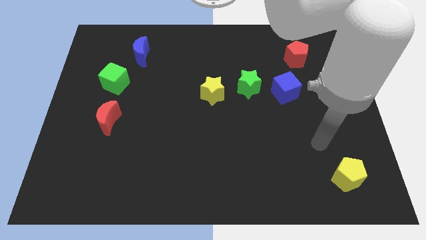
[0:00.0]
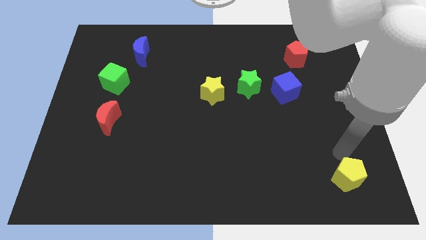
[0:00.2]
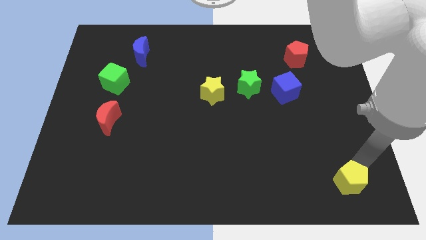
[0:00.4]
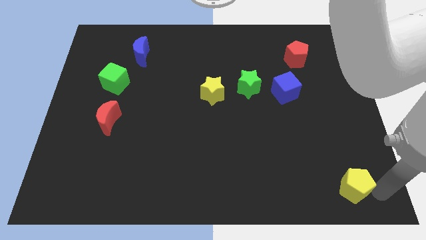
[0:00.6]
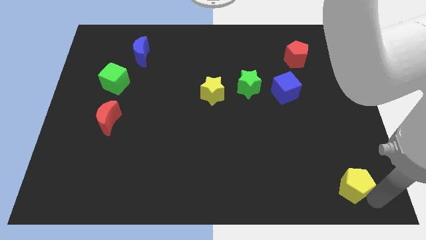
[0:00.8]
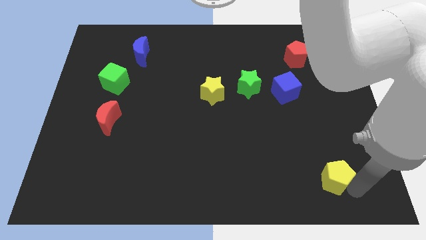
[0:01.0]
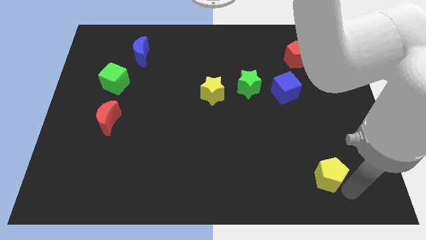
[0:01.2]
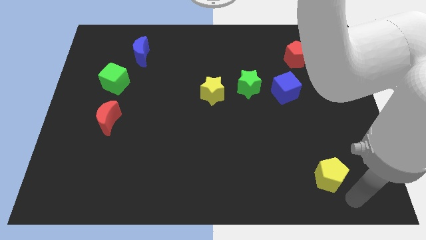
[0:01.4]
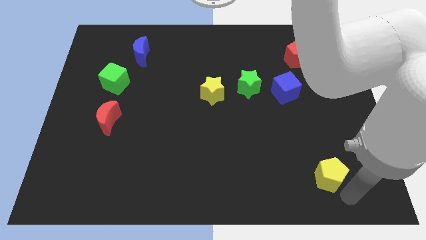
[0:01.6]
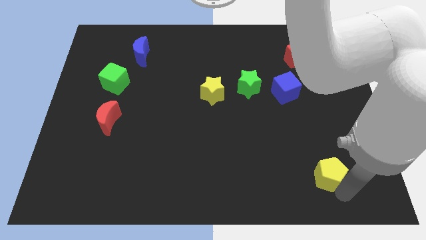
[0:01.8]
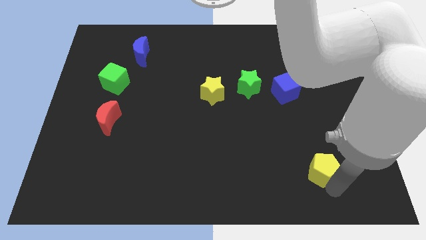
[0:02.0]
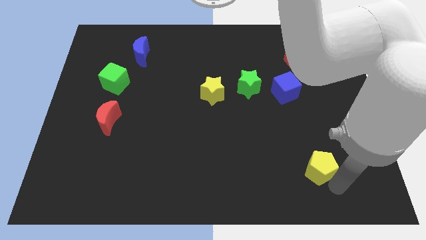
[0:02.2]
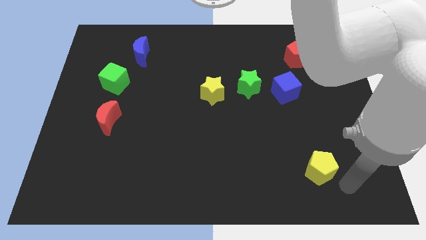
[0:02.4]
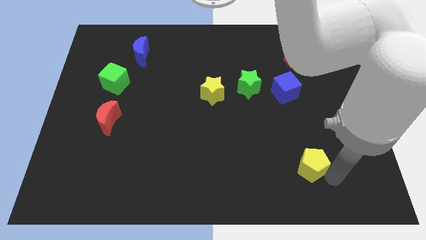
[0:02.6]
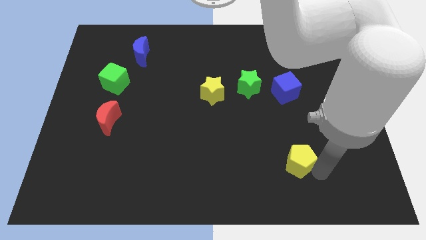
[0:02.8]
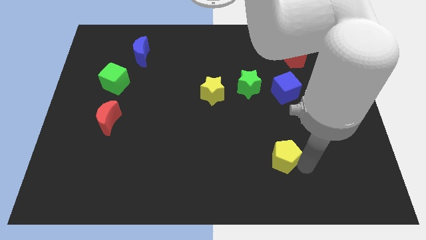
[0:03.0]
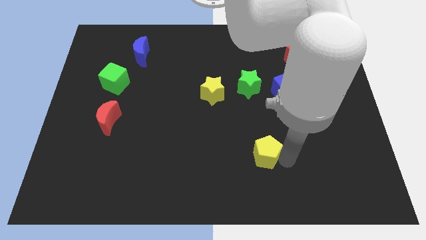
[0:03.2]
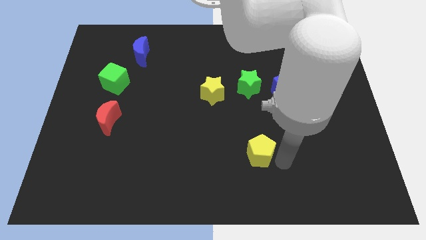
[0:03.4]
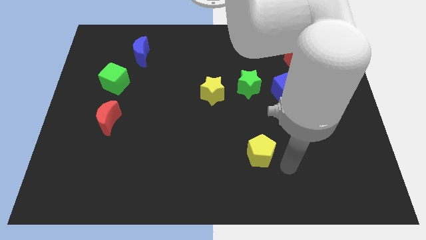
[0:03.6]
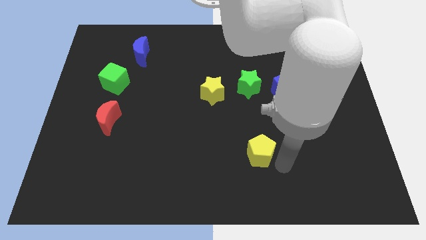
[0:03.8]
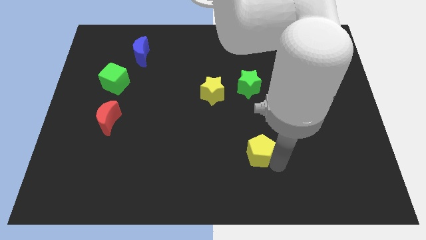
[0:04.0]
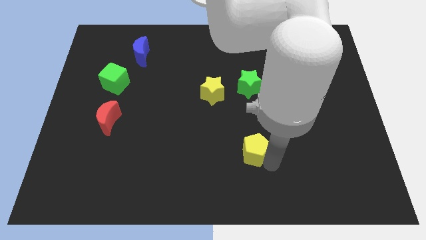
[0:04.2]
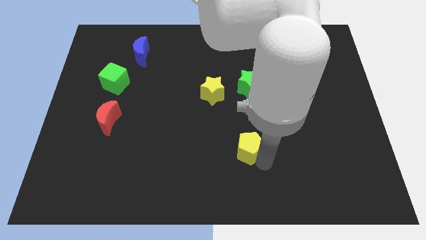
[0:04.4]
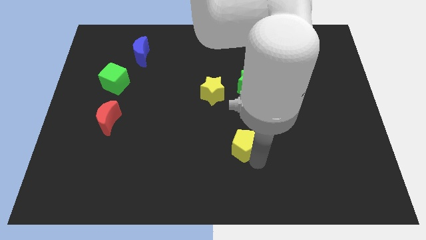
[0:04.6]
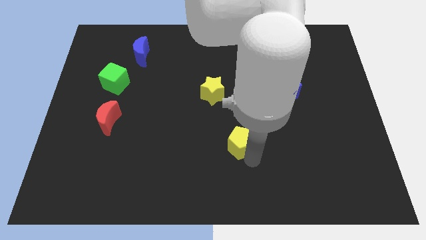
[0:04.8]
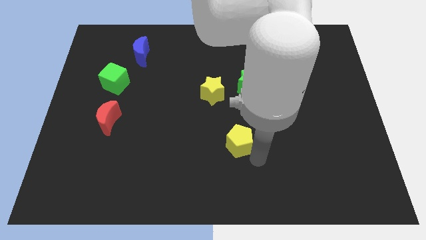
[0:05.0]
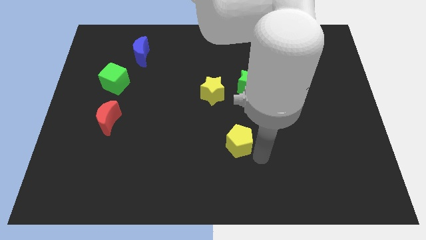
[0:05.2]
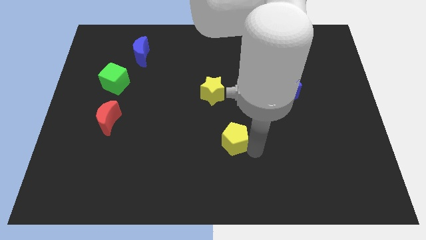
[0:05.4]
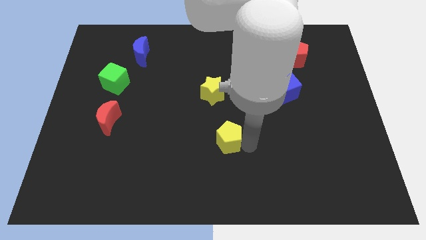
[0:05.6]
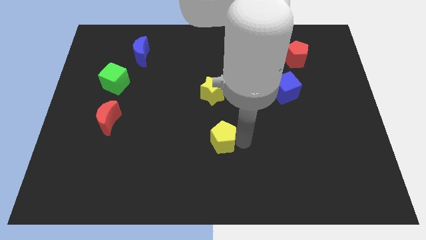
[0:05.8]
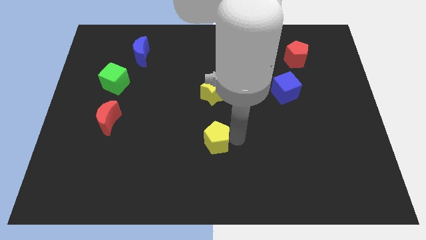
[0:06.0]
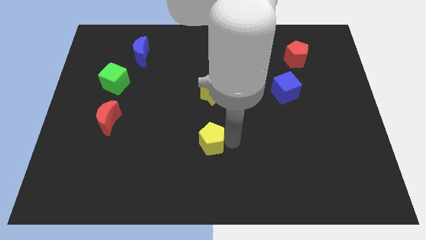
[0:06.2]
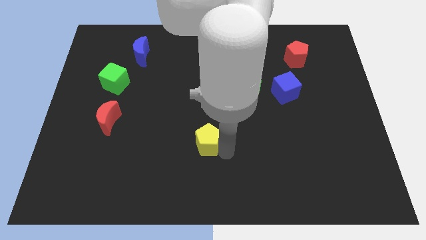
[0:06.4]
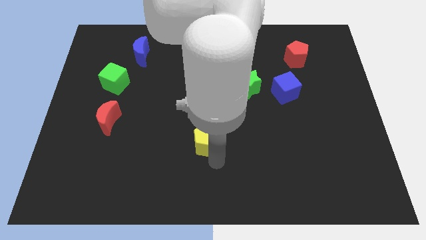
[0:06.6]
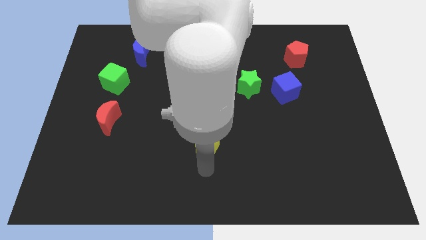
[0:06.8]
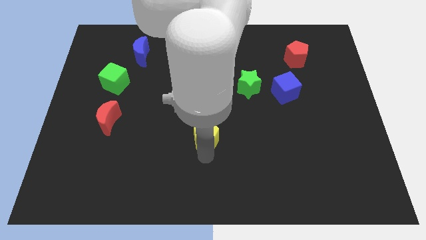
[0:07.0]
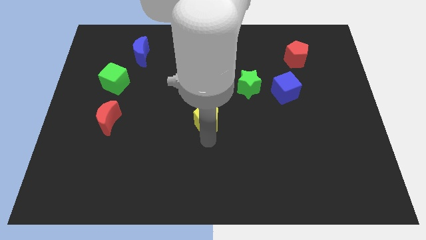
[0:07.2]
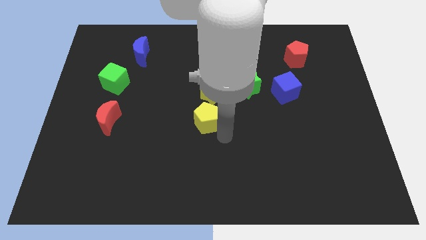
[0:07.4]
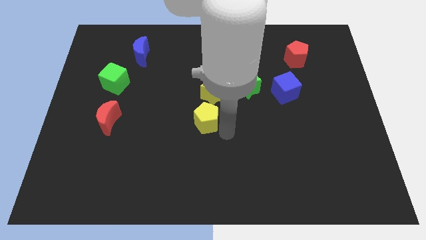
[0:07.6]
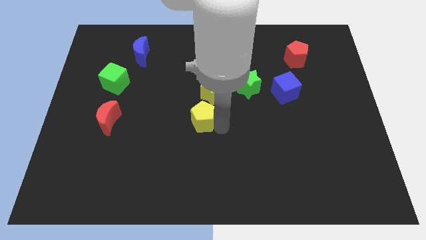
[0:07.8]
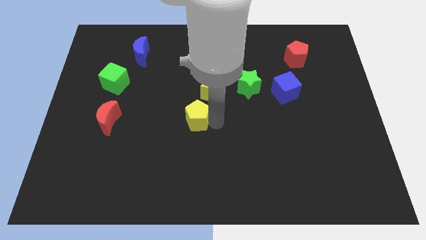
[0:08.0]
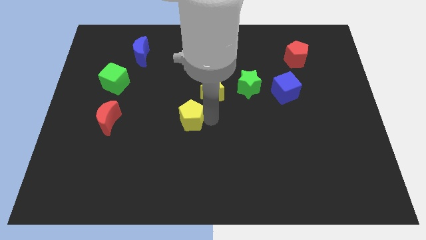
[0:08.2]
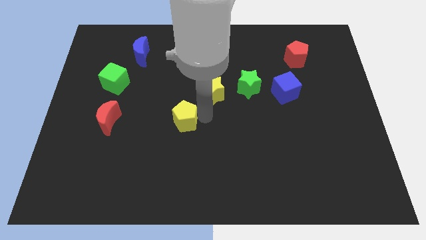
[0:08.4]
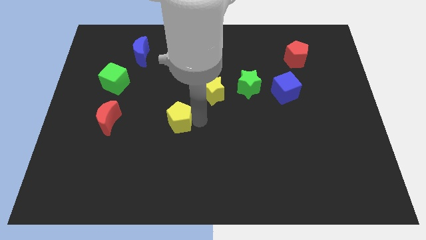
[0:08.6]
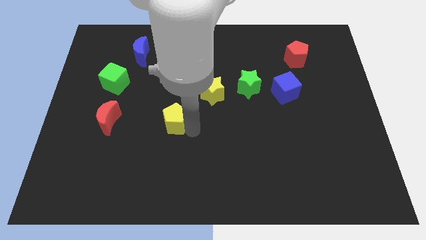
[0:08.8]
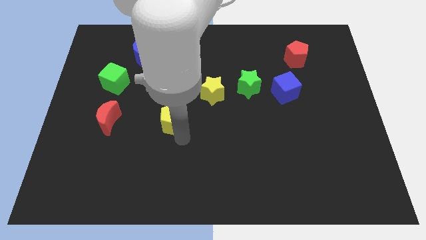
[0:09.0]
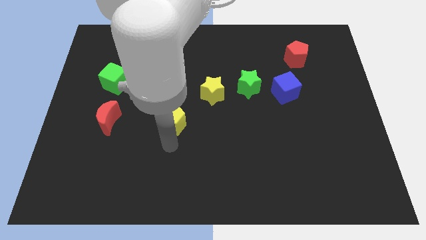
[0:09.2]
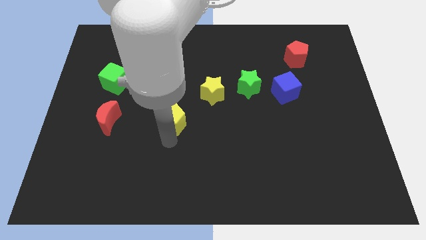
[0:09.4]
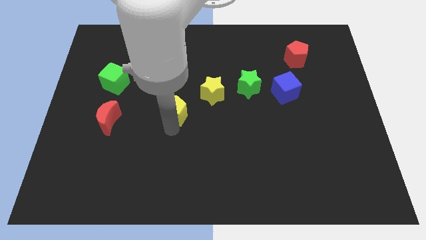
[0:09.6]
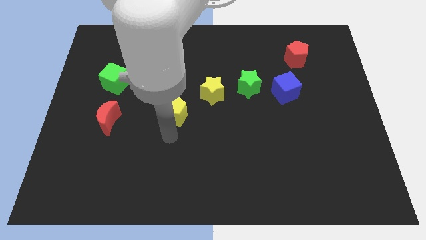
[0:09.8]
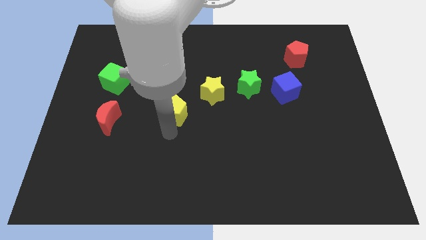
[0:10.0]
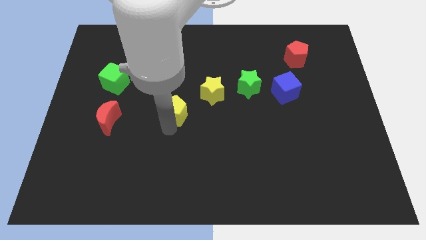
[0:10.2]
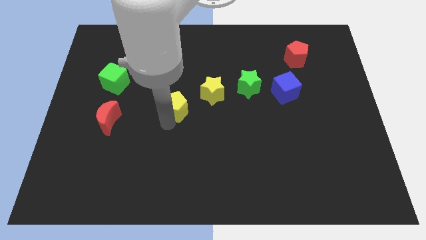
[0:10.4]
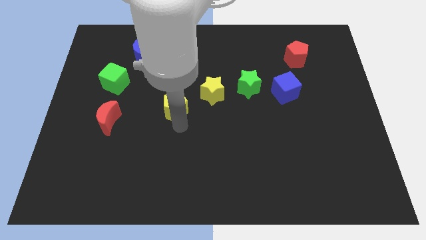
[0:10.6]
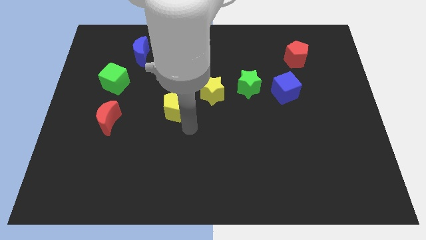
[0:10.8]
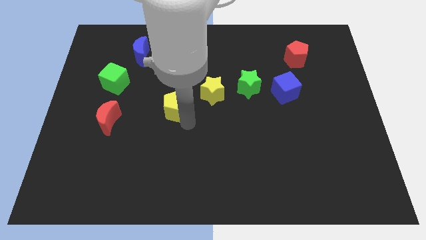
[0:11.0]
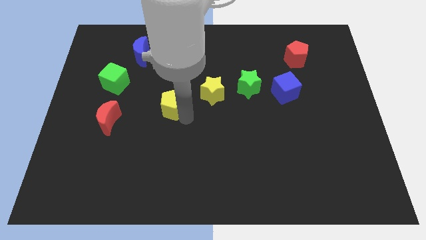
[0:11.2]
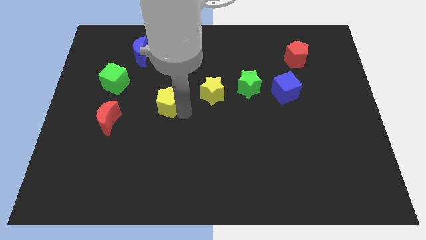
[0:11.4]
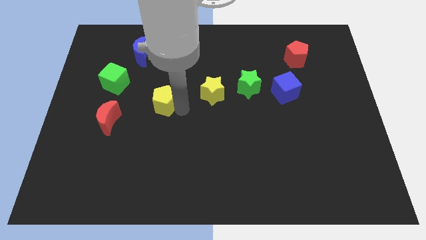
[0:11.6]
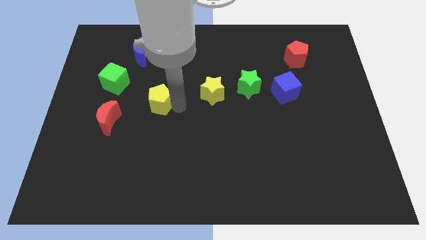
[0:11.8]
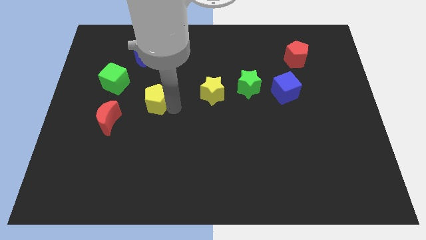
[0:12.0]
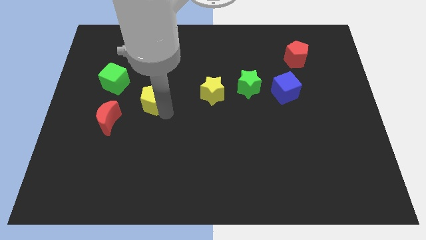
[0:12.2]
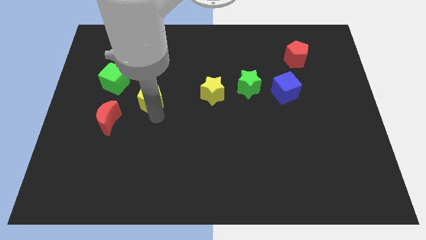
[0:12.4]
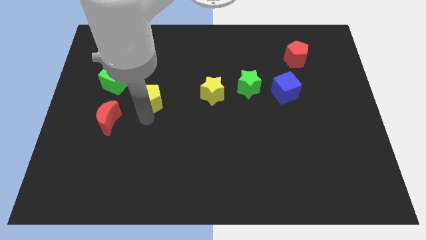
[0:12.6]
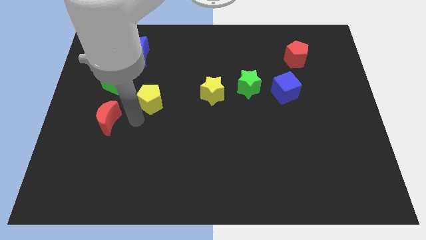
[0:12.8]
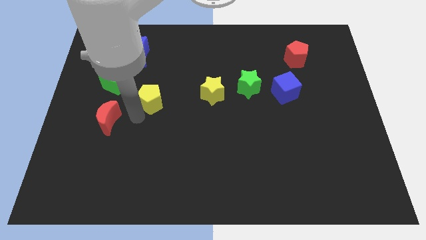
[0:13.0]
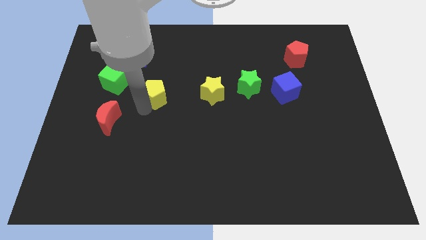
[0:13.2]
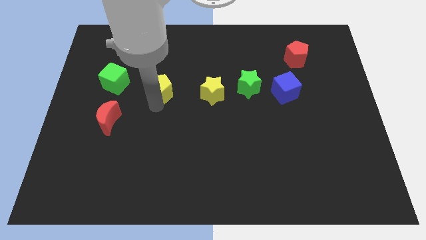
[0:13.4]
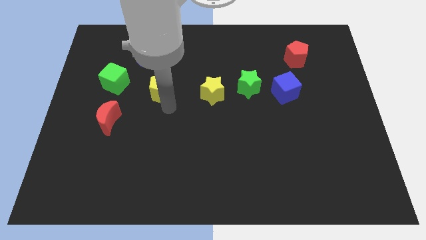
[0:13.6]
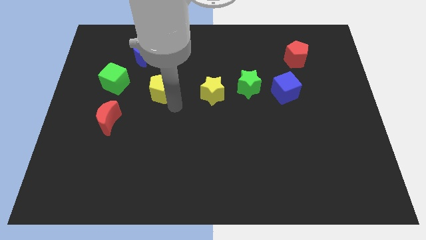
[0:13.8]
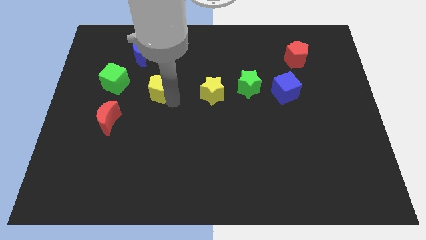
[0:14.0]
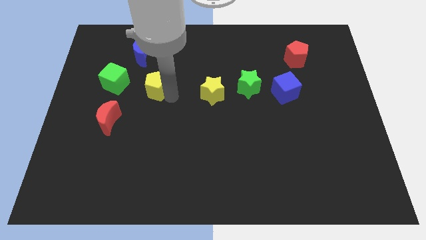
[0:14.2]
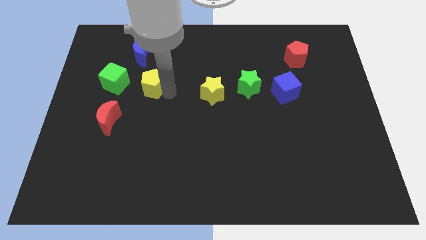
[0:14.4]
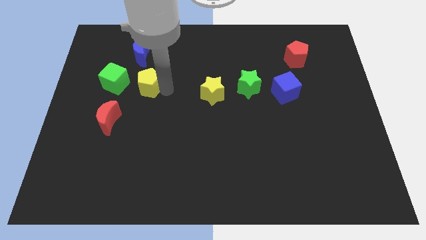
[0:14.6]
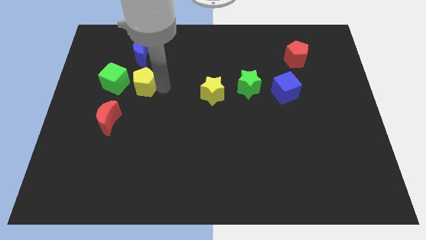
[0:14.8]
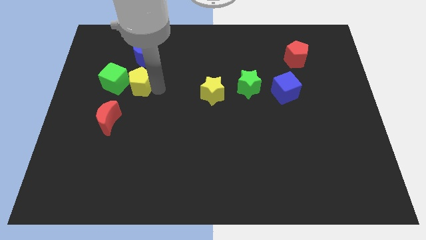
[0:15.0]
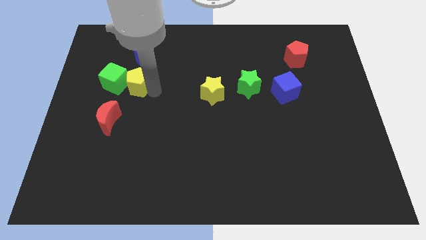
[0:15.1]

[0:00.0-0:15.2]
put the yellow pentagon to the top right side of the green cube
